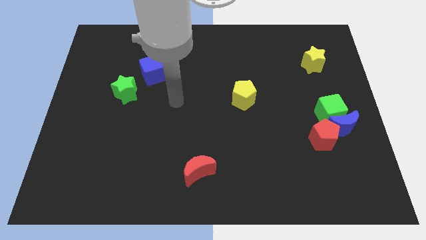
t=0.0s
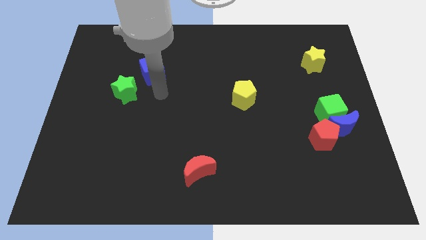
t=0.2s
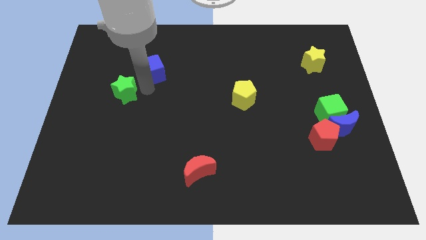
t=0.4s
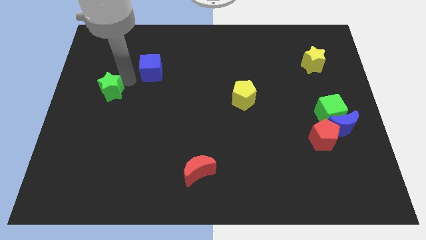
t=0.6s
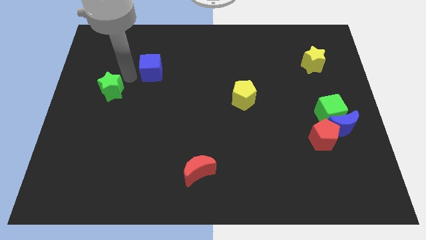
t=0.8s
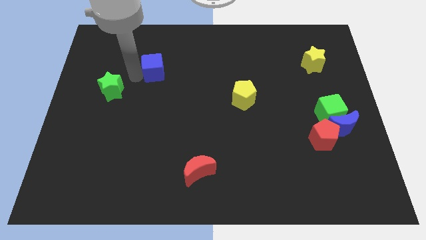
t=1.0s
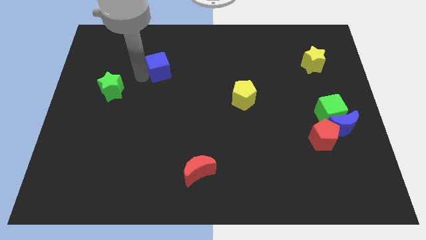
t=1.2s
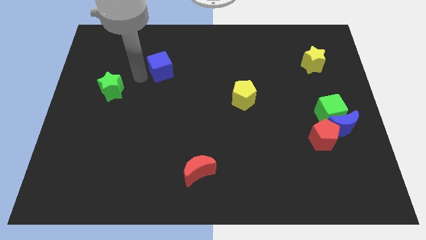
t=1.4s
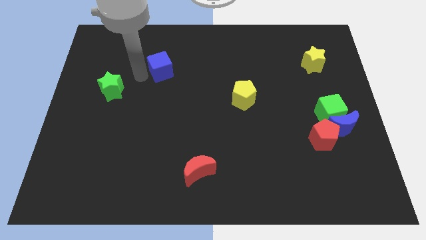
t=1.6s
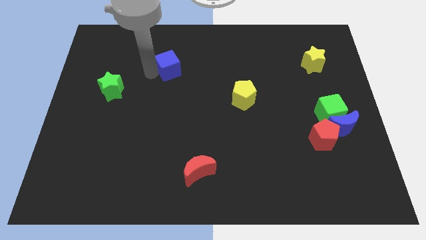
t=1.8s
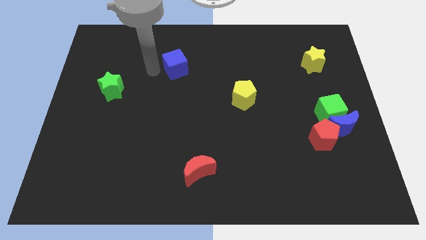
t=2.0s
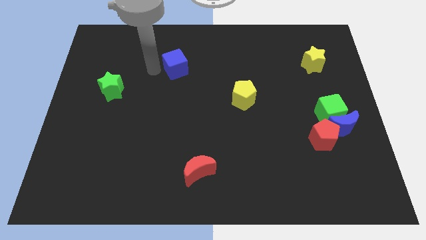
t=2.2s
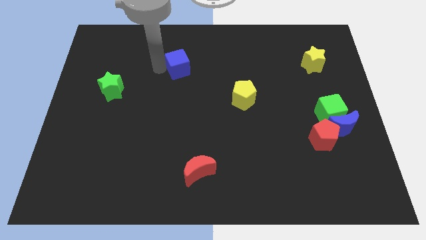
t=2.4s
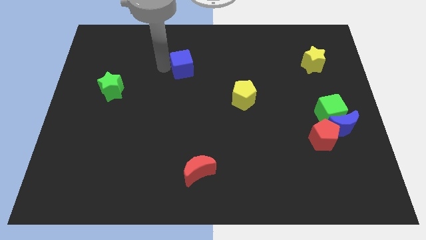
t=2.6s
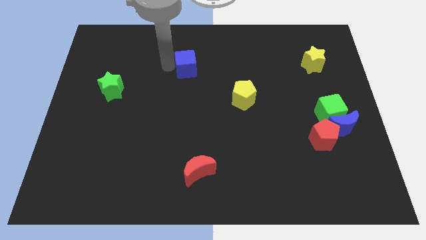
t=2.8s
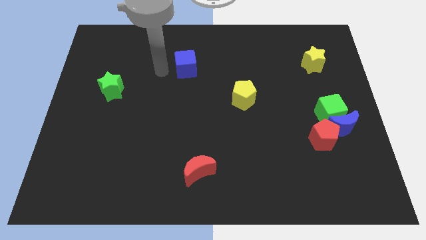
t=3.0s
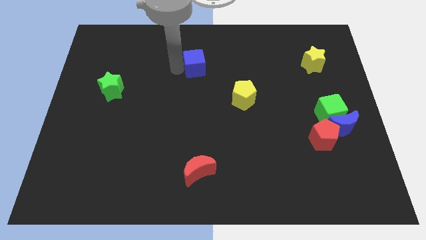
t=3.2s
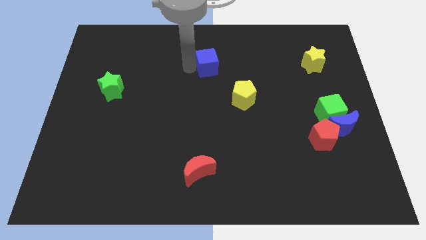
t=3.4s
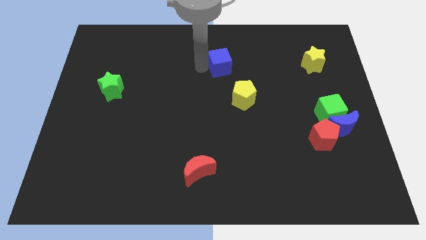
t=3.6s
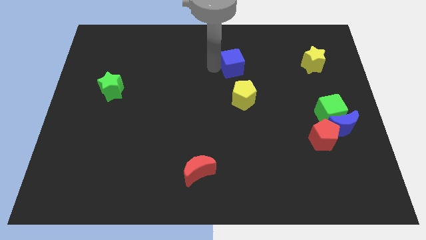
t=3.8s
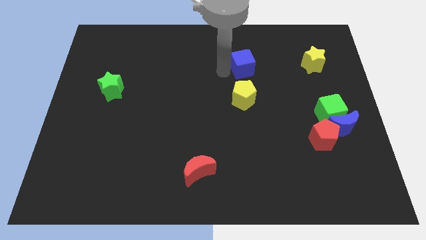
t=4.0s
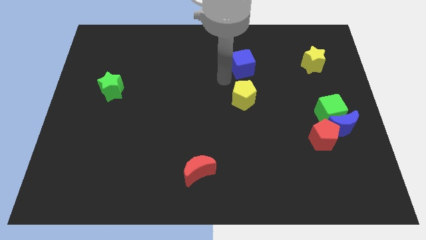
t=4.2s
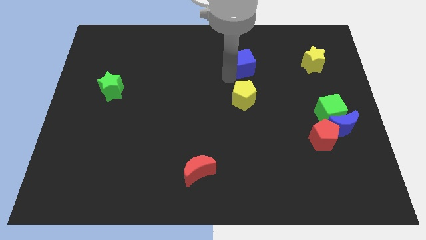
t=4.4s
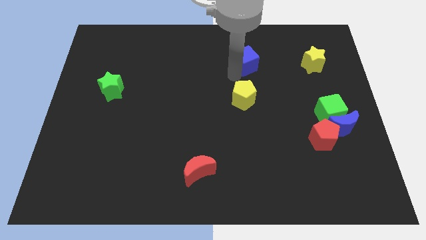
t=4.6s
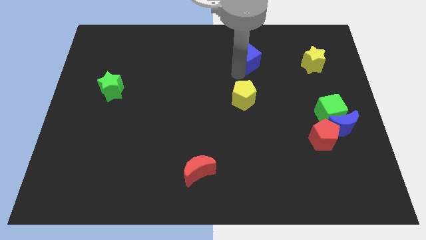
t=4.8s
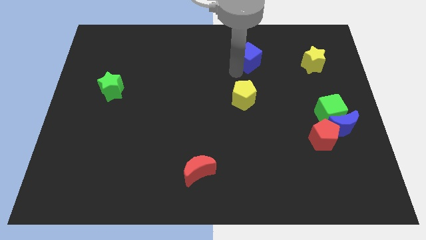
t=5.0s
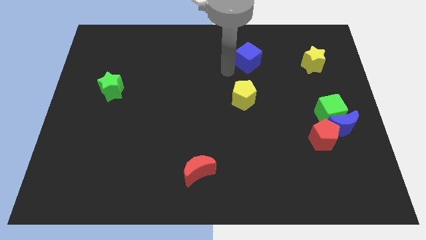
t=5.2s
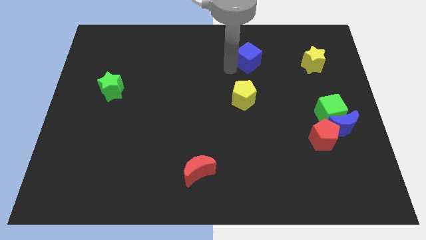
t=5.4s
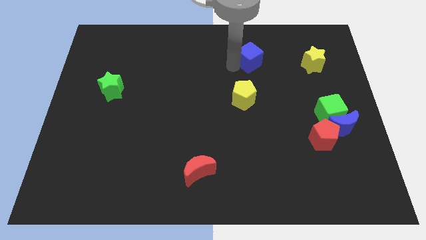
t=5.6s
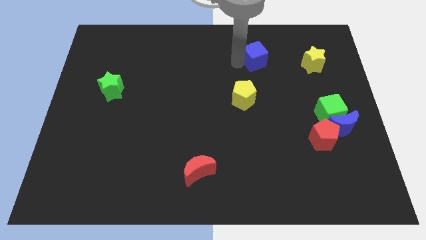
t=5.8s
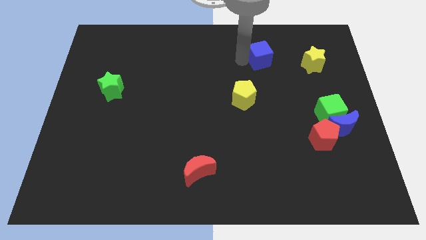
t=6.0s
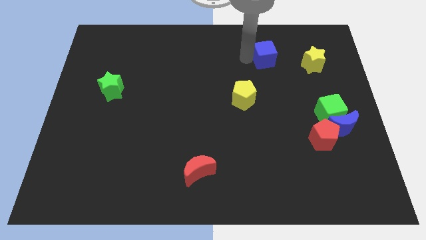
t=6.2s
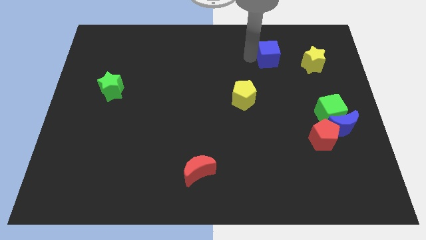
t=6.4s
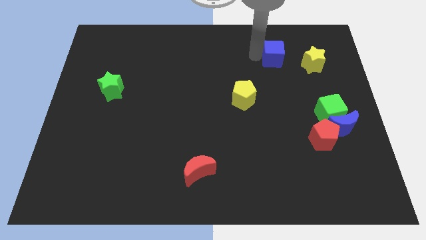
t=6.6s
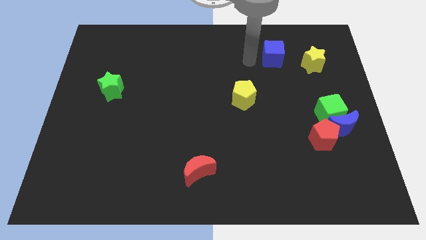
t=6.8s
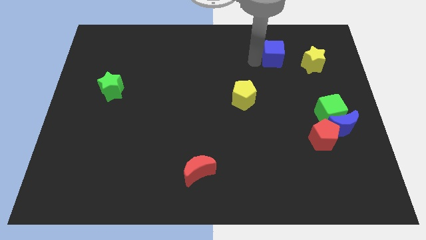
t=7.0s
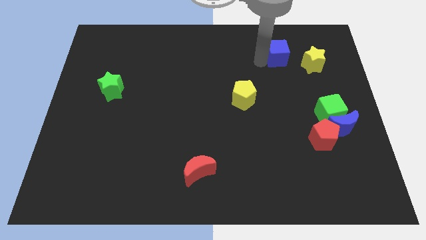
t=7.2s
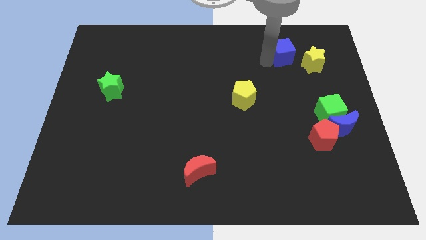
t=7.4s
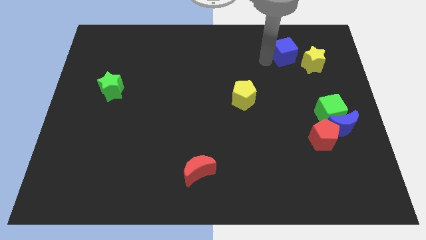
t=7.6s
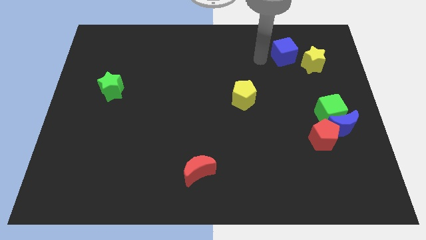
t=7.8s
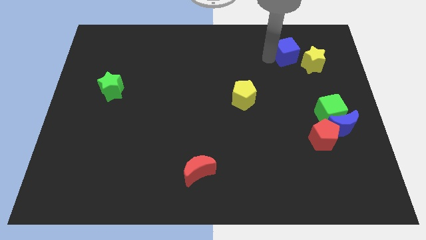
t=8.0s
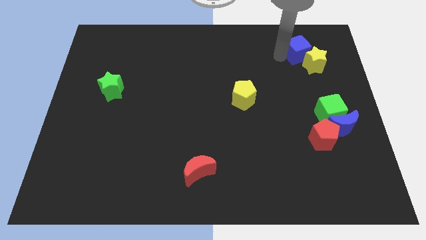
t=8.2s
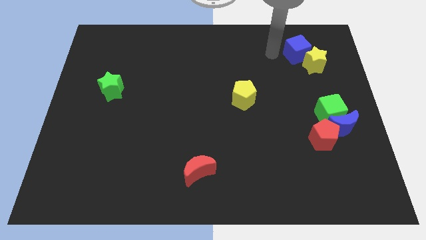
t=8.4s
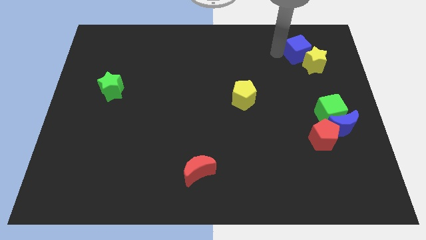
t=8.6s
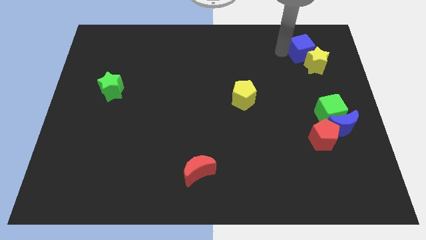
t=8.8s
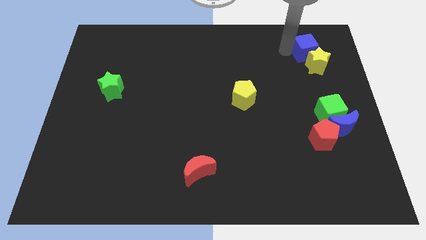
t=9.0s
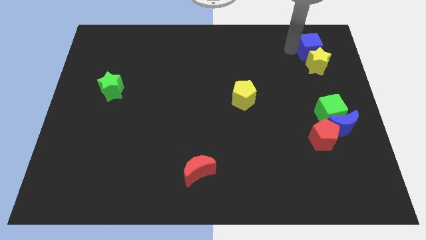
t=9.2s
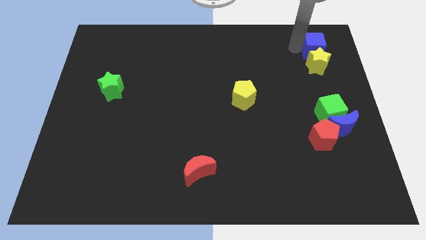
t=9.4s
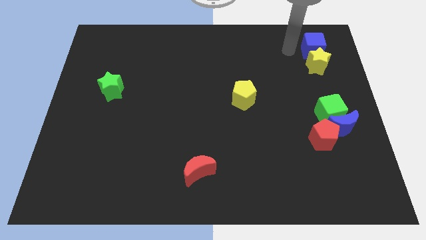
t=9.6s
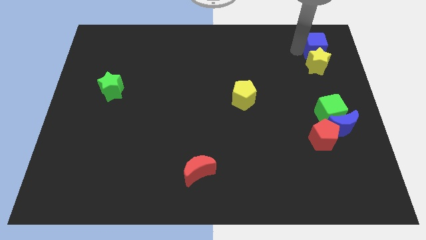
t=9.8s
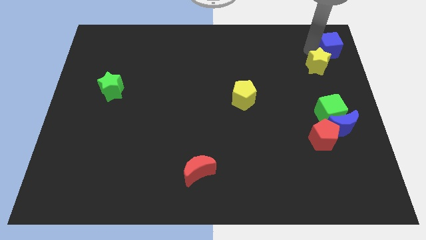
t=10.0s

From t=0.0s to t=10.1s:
put the blue cube to the top right corner

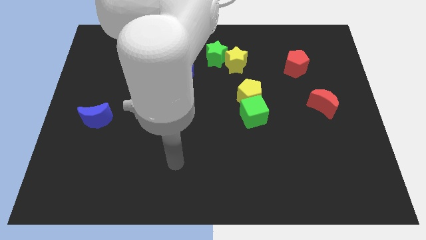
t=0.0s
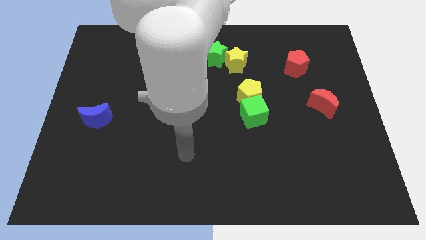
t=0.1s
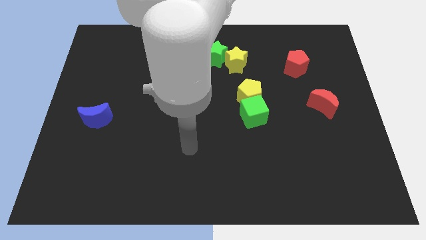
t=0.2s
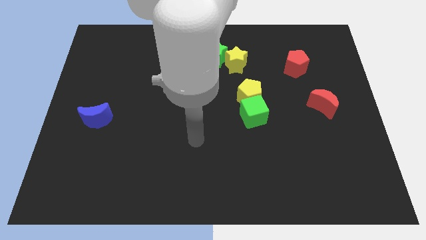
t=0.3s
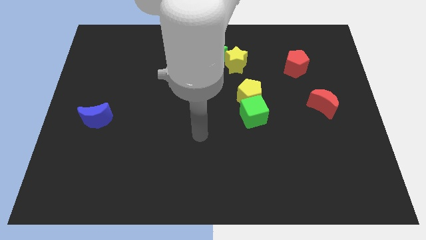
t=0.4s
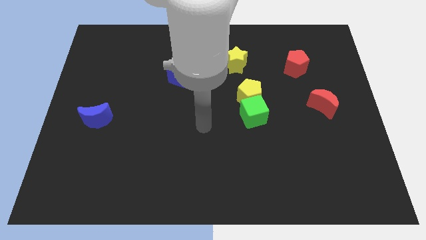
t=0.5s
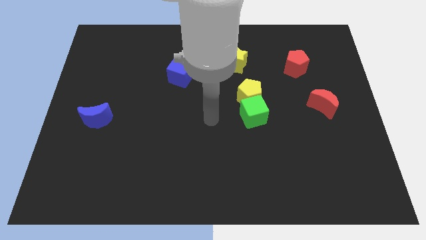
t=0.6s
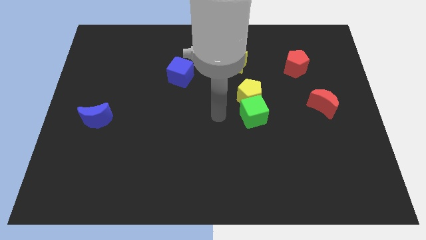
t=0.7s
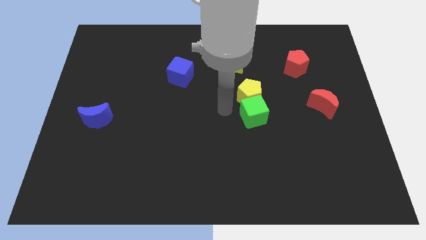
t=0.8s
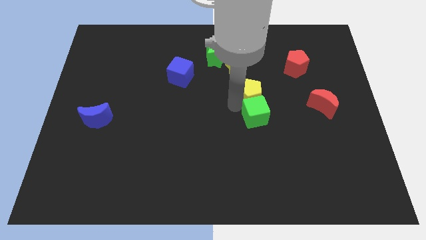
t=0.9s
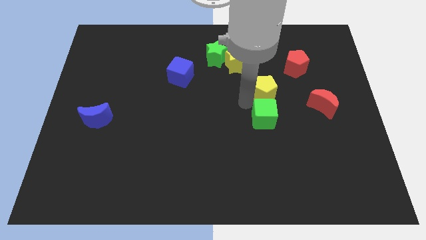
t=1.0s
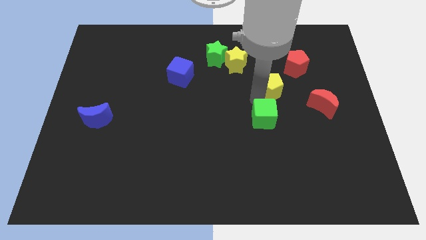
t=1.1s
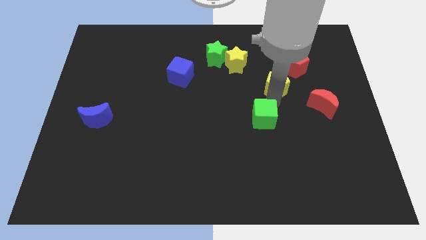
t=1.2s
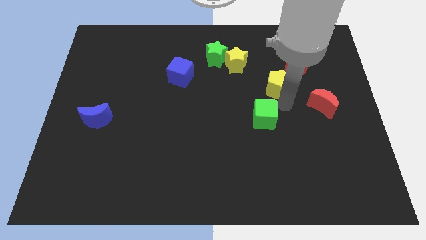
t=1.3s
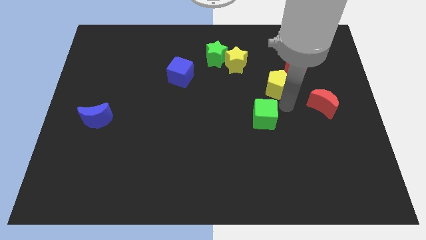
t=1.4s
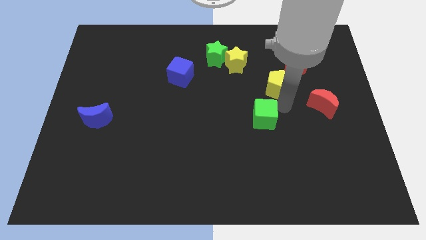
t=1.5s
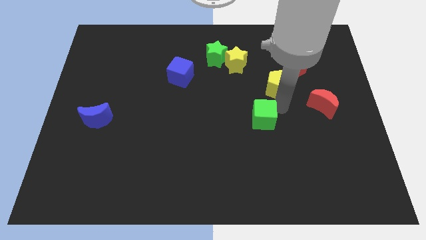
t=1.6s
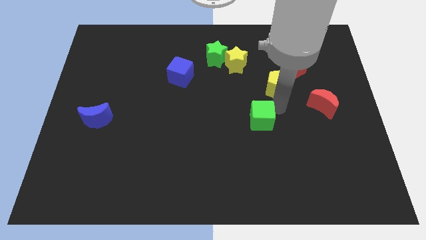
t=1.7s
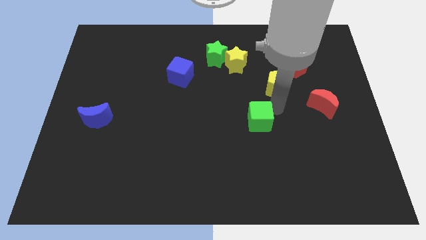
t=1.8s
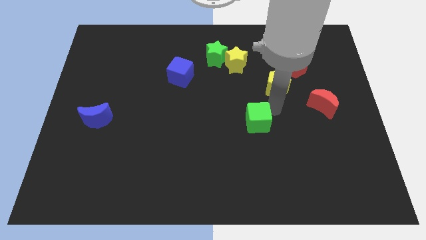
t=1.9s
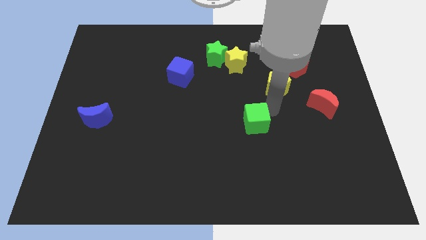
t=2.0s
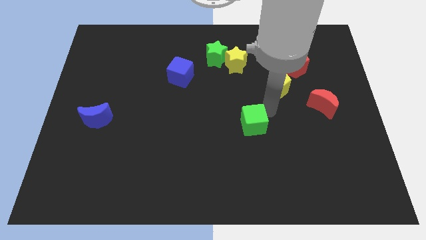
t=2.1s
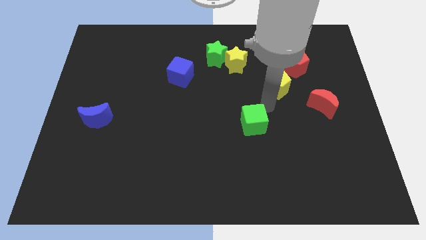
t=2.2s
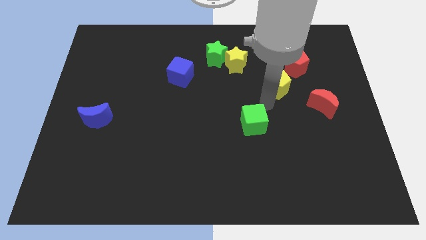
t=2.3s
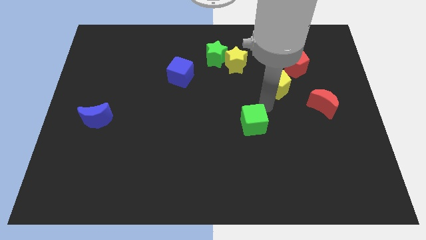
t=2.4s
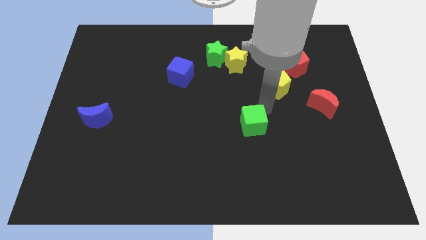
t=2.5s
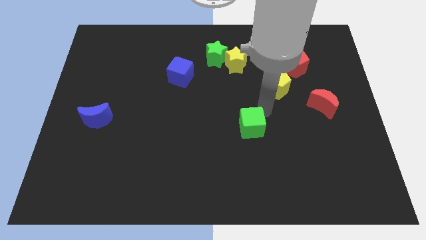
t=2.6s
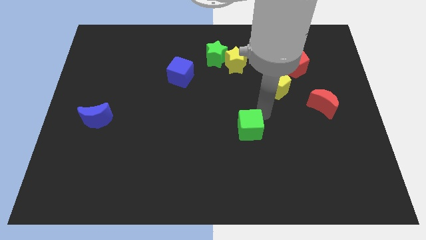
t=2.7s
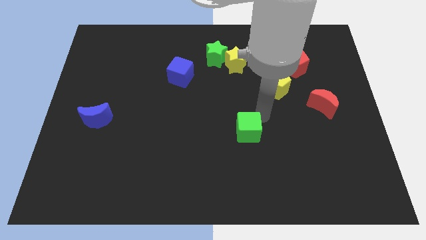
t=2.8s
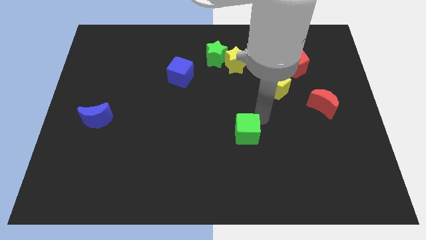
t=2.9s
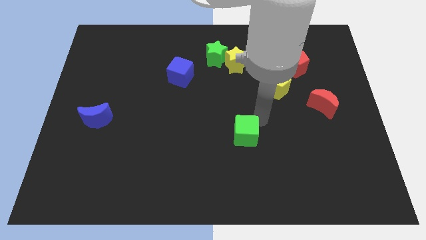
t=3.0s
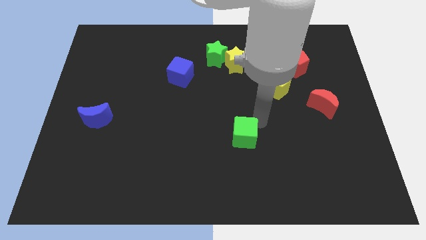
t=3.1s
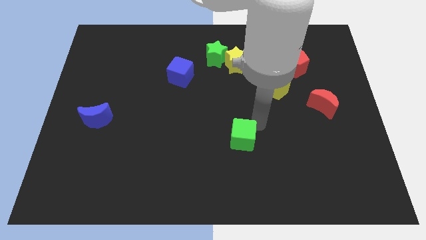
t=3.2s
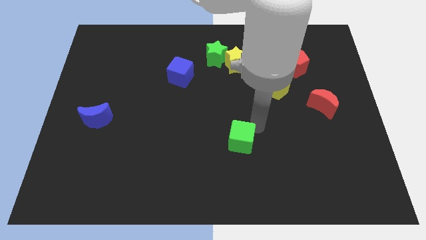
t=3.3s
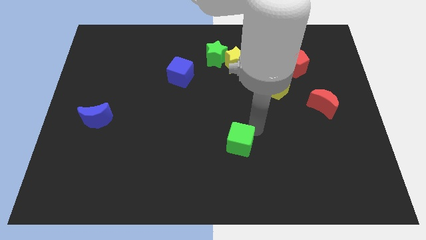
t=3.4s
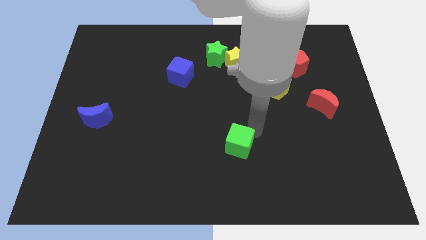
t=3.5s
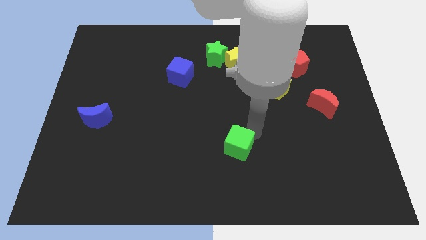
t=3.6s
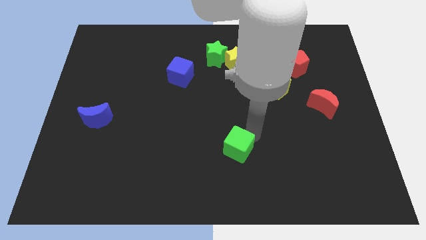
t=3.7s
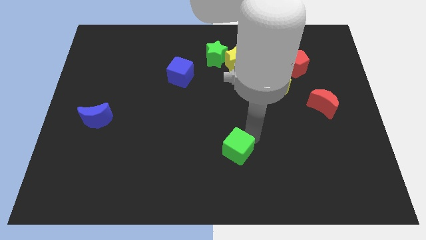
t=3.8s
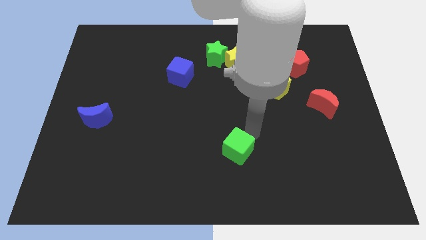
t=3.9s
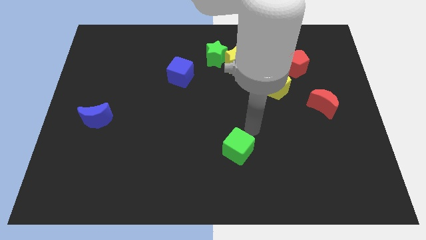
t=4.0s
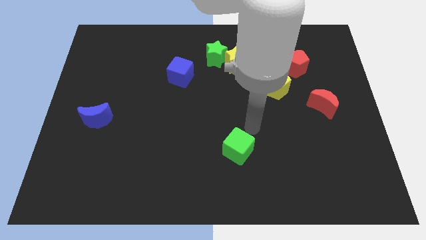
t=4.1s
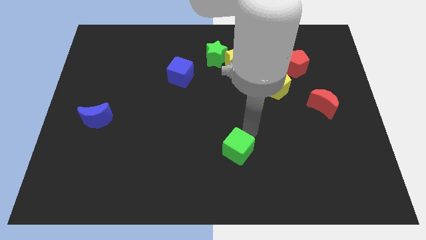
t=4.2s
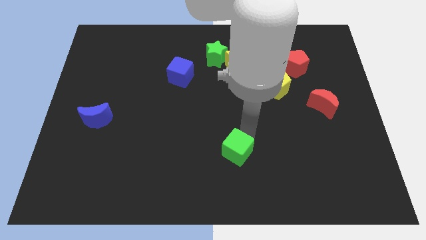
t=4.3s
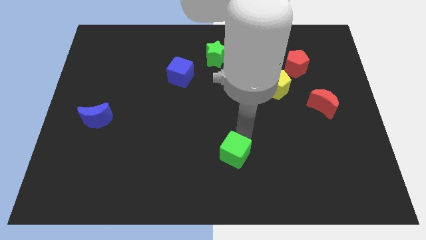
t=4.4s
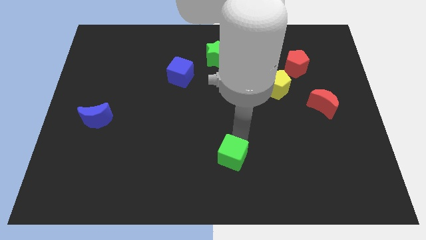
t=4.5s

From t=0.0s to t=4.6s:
push the green cube to the bottom side
